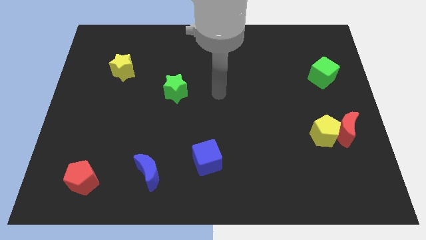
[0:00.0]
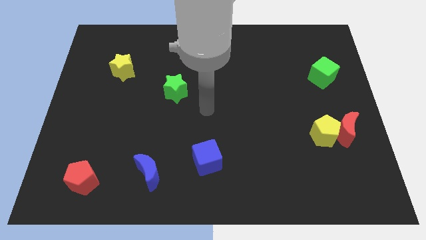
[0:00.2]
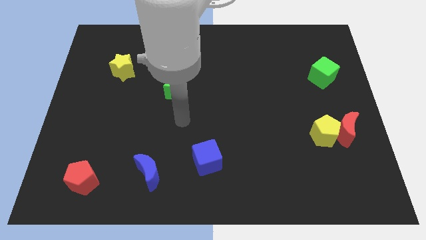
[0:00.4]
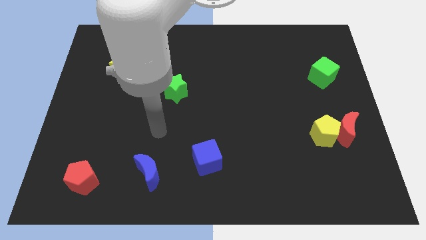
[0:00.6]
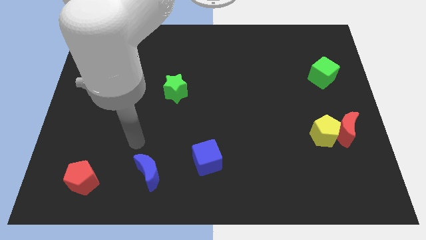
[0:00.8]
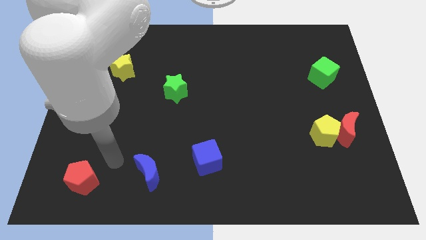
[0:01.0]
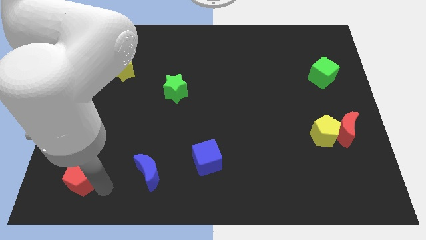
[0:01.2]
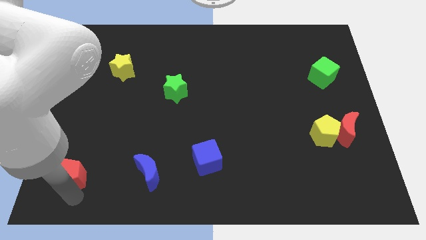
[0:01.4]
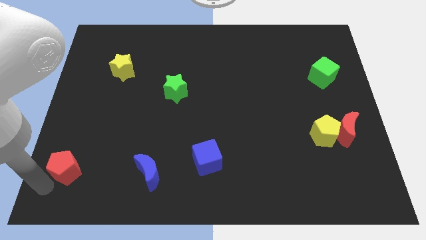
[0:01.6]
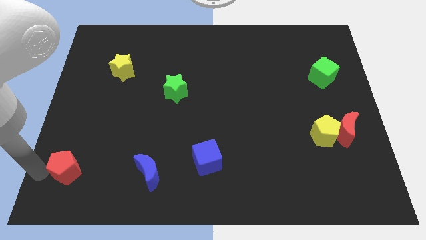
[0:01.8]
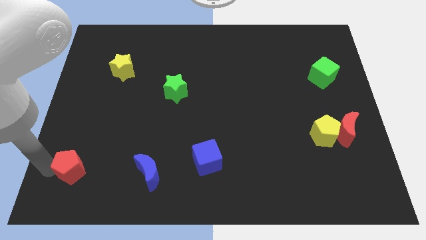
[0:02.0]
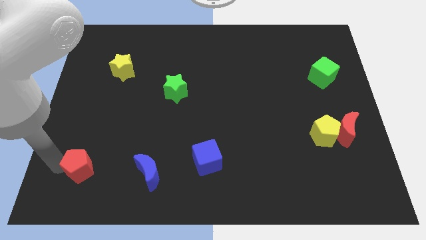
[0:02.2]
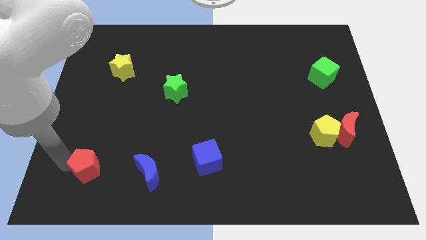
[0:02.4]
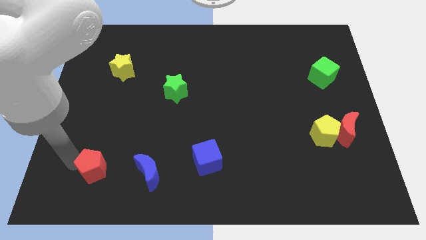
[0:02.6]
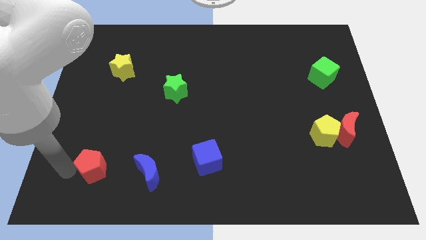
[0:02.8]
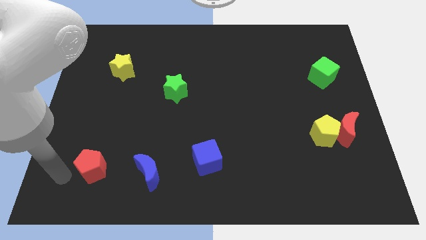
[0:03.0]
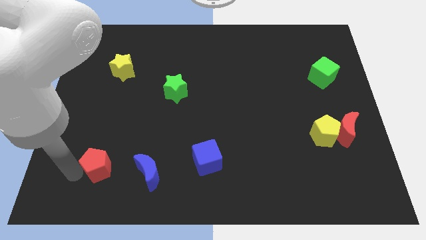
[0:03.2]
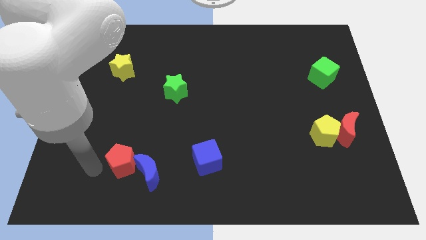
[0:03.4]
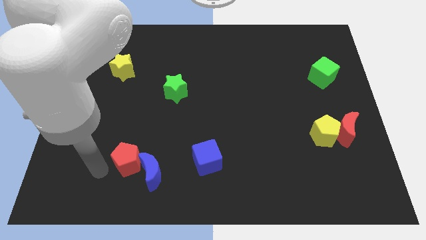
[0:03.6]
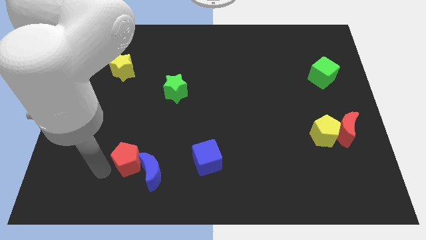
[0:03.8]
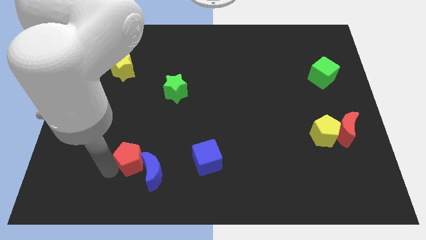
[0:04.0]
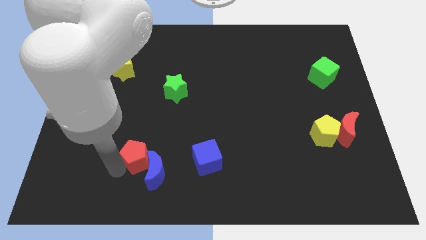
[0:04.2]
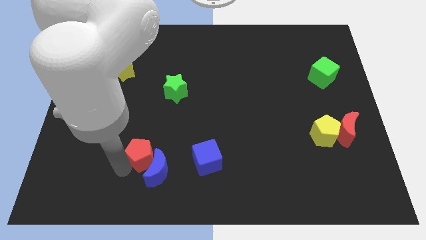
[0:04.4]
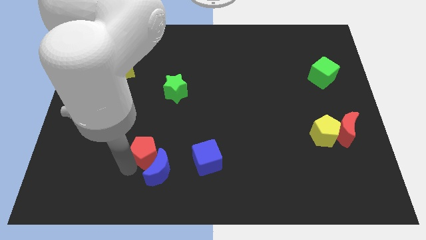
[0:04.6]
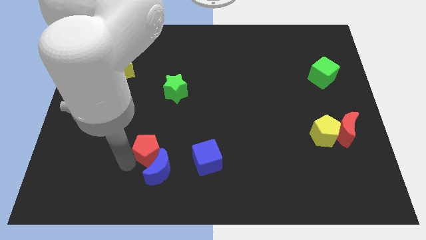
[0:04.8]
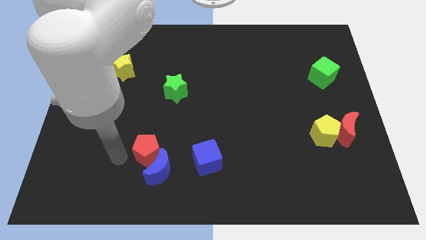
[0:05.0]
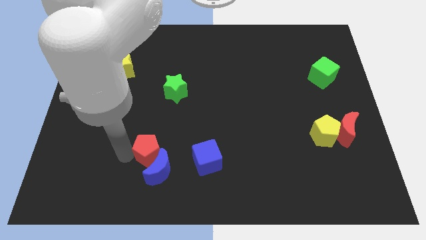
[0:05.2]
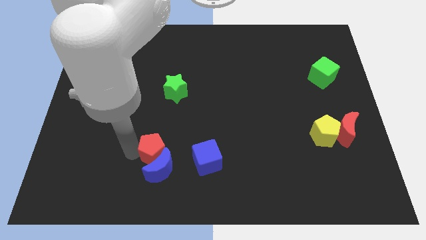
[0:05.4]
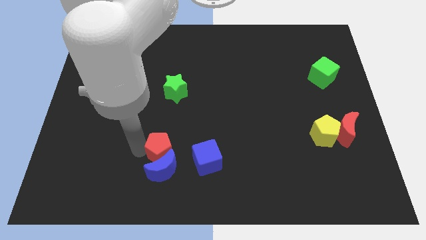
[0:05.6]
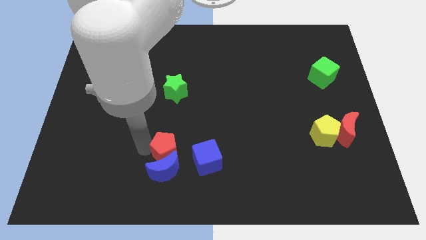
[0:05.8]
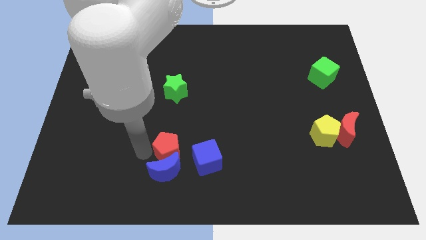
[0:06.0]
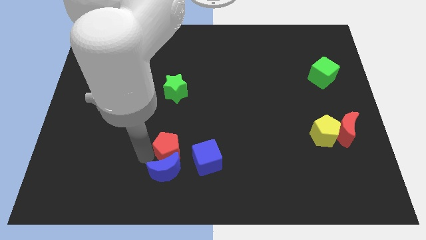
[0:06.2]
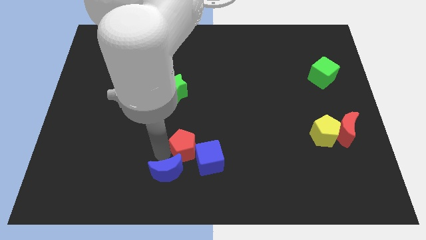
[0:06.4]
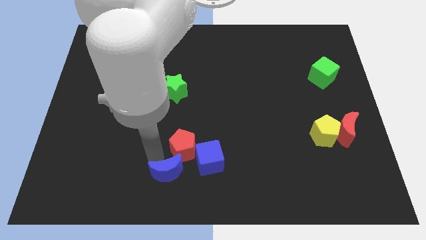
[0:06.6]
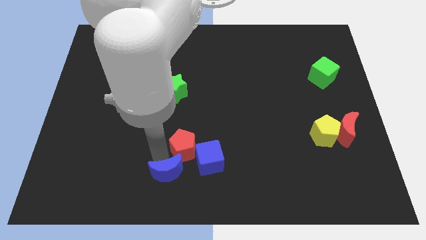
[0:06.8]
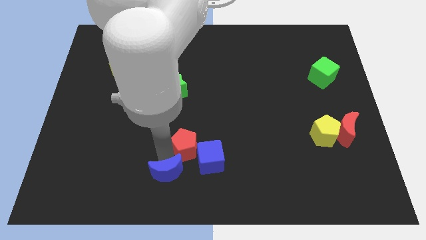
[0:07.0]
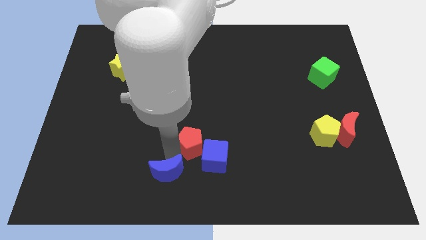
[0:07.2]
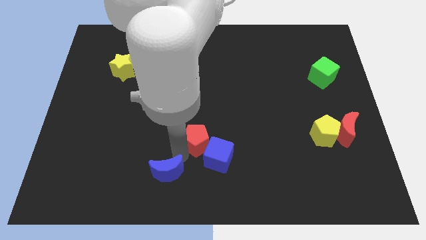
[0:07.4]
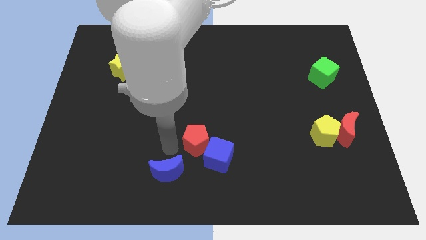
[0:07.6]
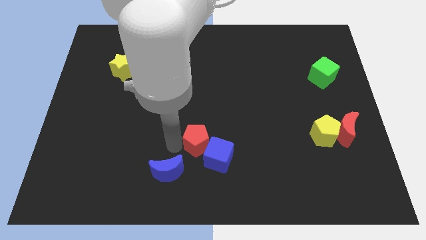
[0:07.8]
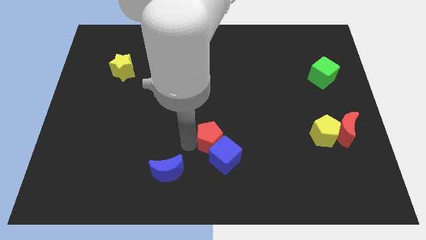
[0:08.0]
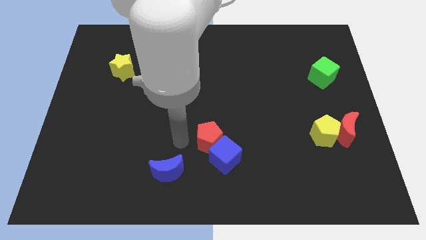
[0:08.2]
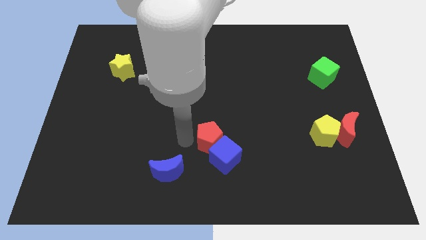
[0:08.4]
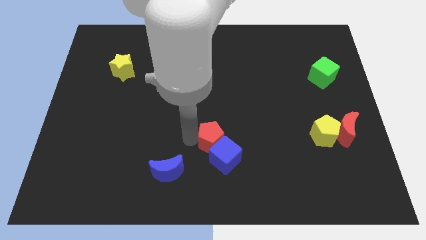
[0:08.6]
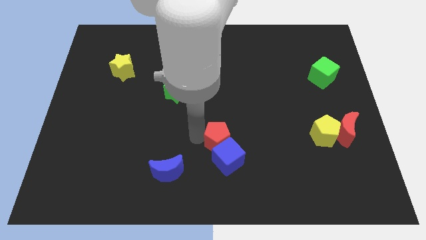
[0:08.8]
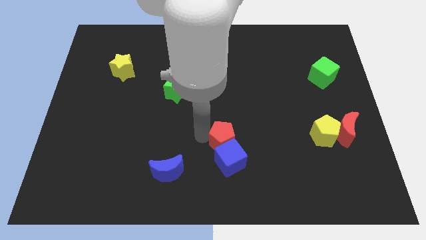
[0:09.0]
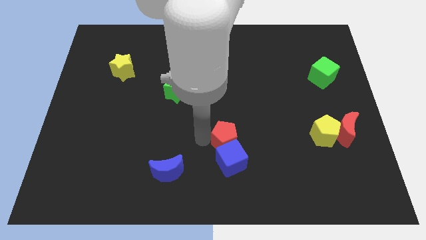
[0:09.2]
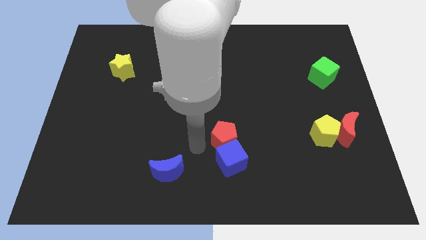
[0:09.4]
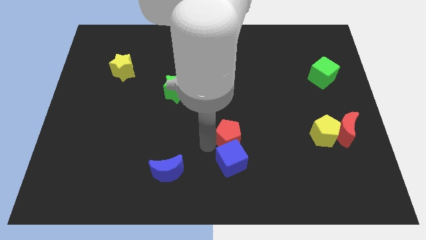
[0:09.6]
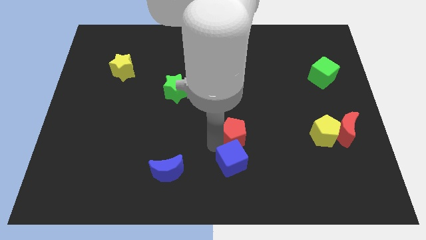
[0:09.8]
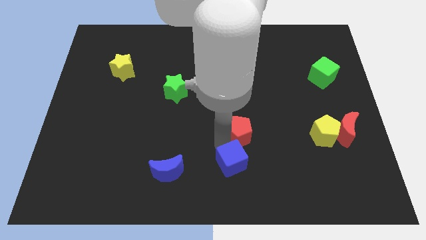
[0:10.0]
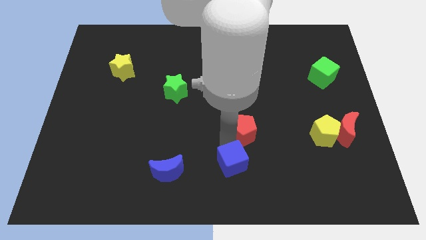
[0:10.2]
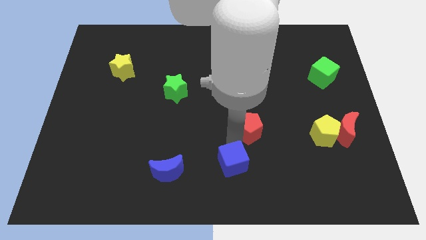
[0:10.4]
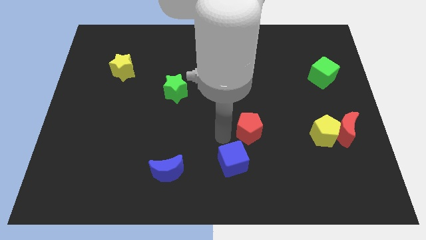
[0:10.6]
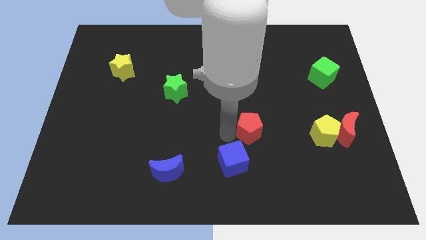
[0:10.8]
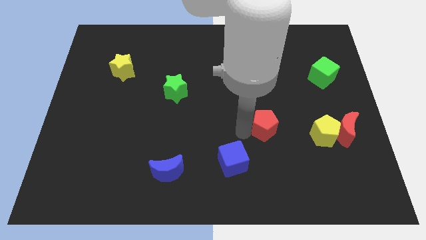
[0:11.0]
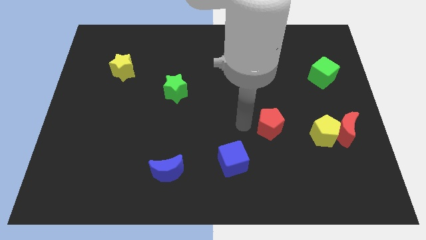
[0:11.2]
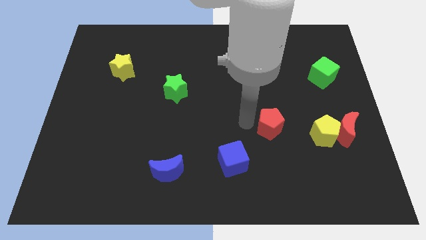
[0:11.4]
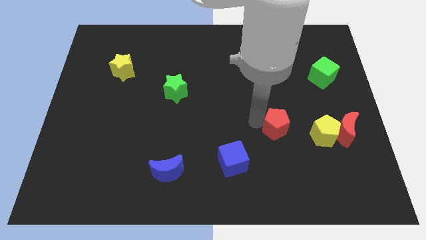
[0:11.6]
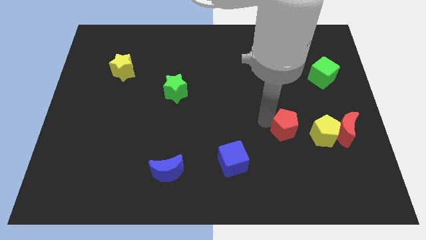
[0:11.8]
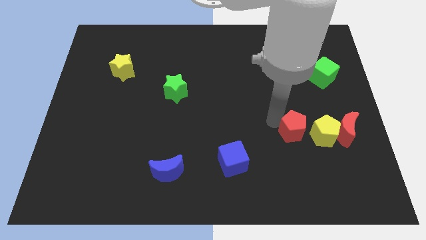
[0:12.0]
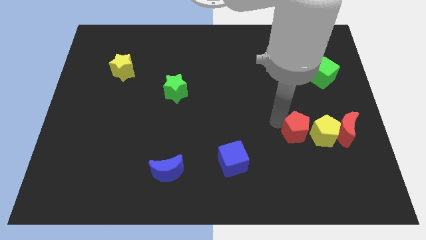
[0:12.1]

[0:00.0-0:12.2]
slide the red pentagon next to the yellow pentagon
